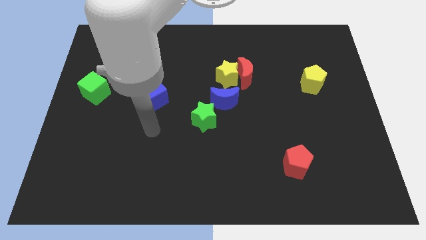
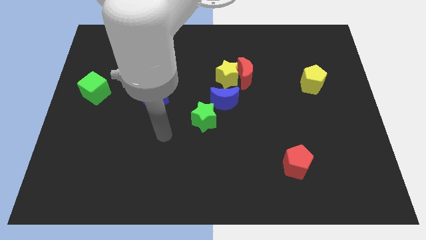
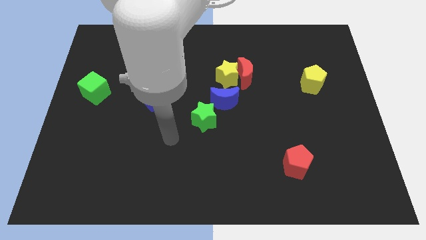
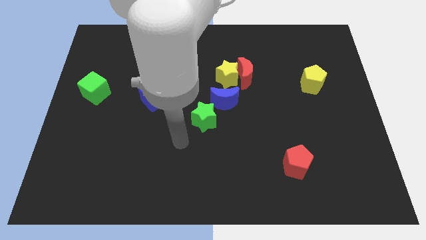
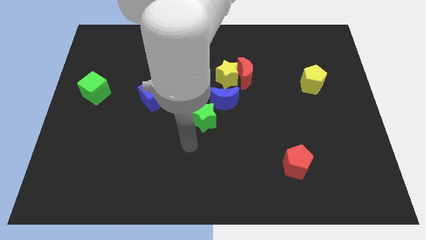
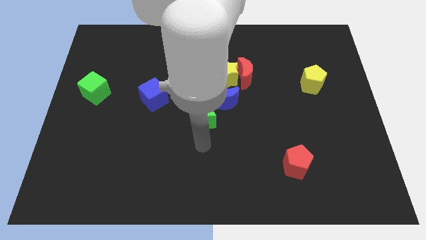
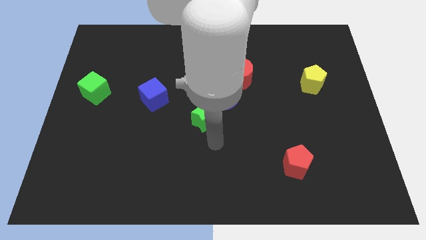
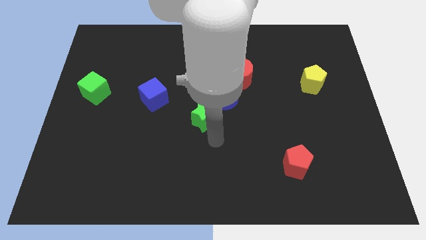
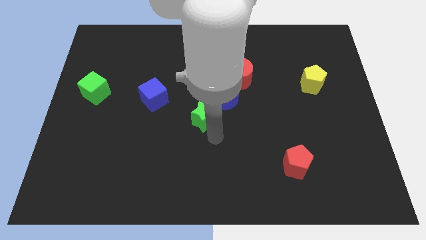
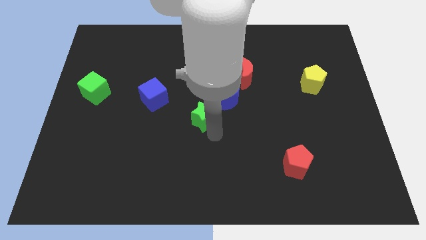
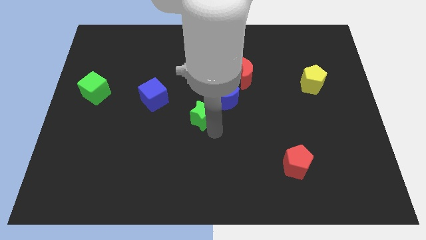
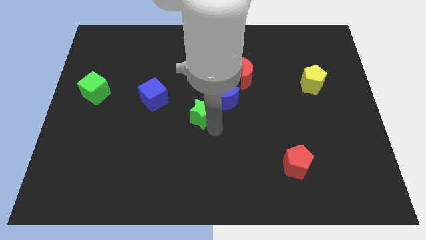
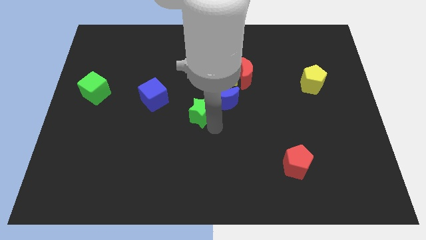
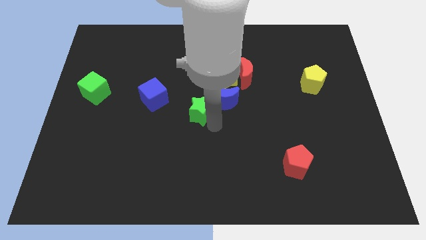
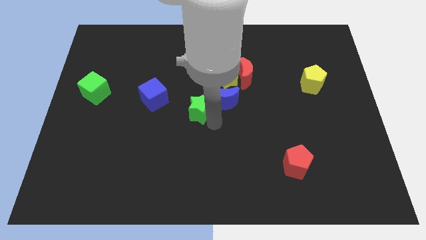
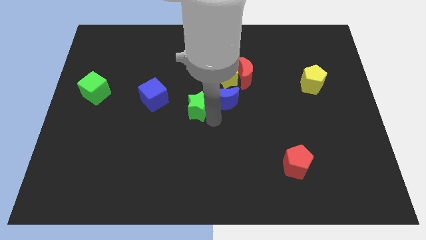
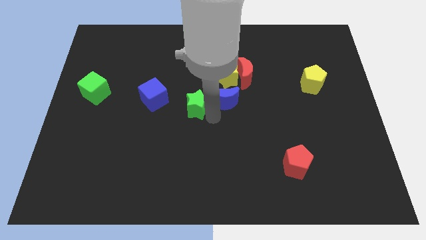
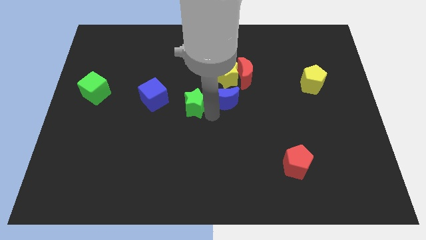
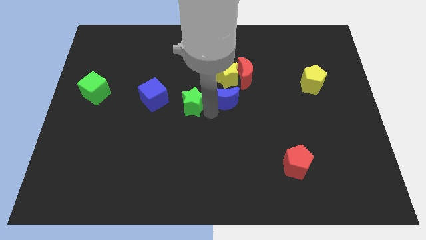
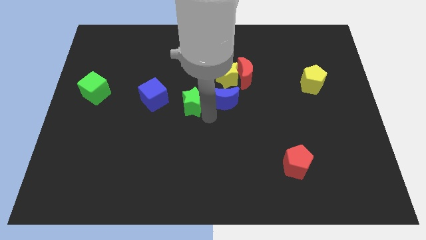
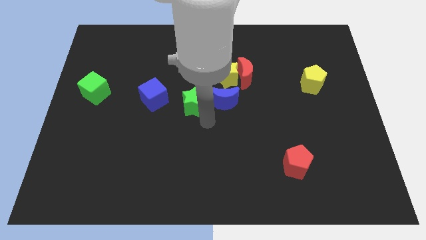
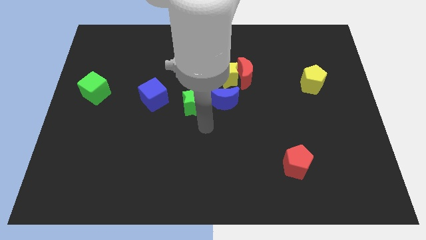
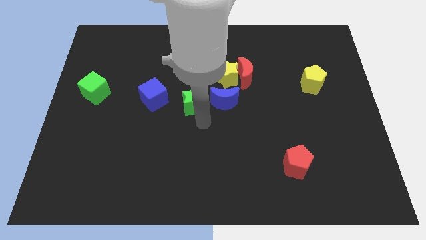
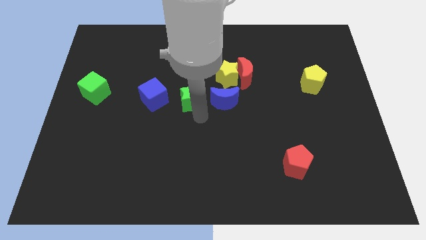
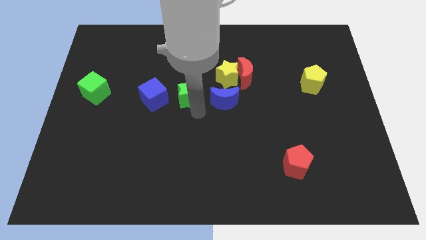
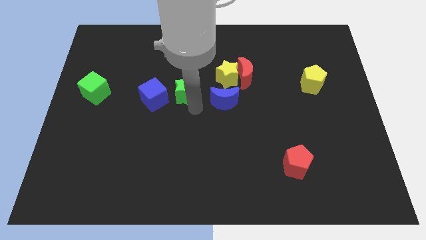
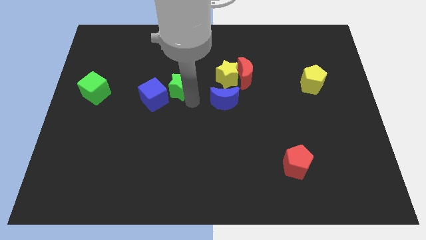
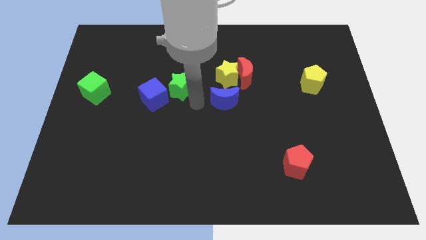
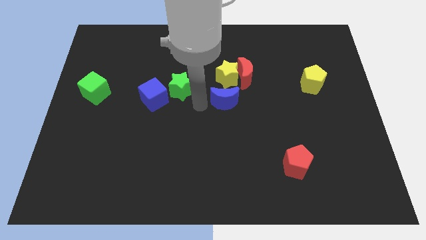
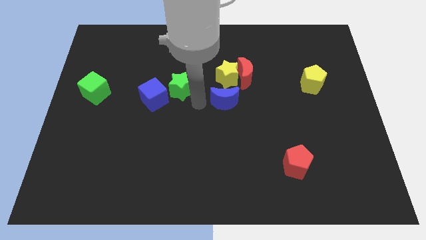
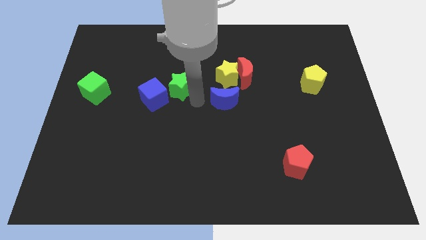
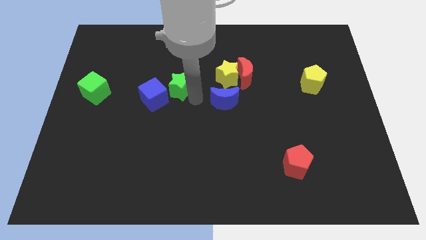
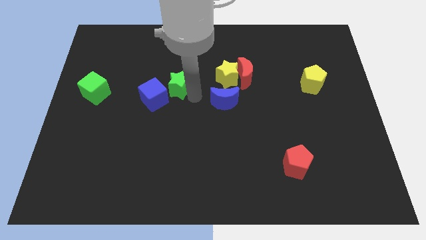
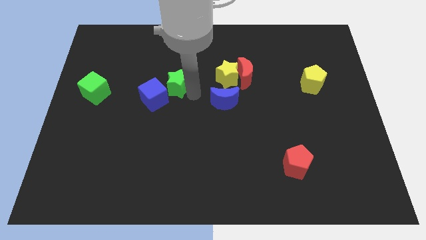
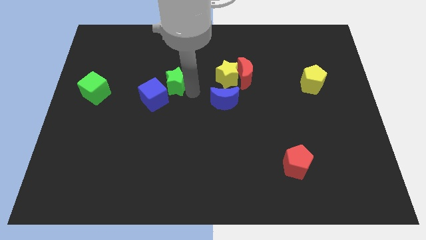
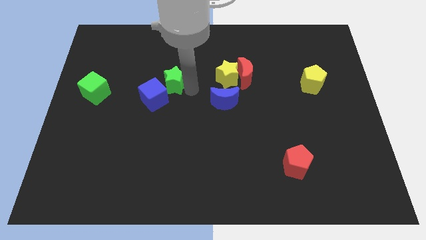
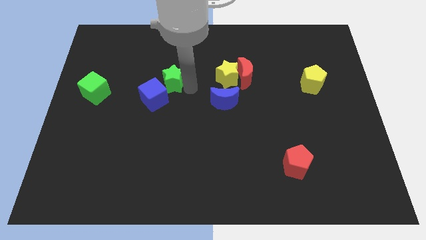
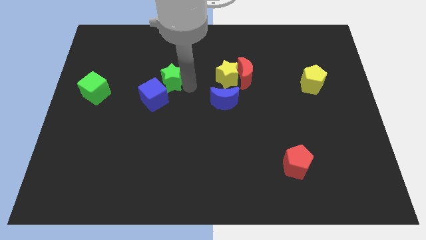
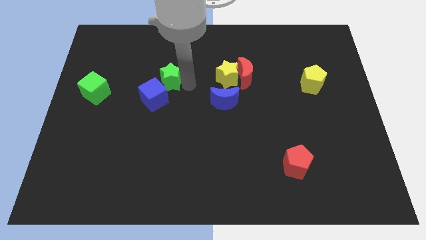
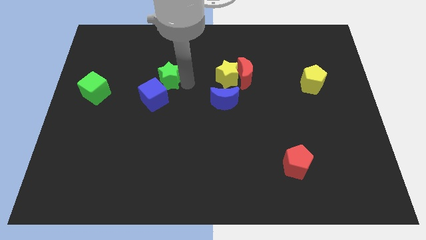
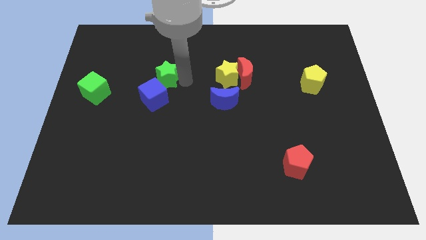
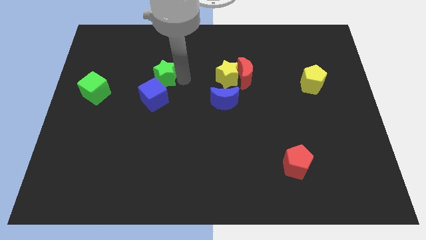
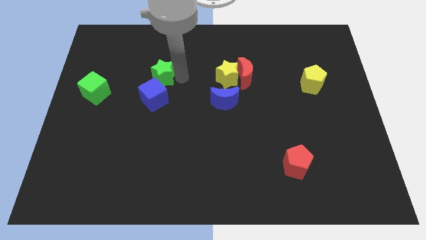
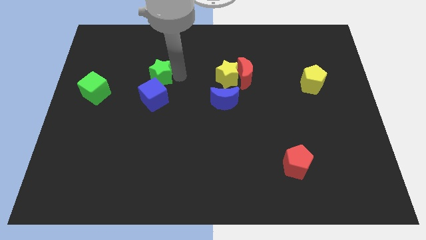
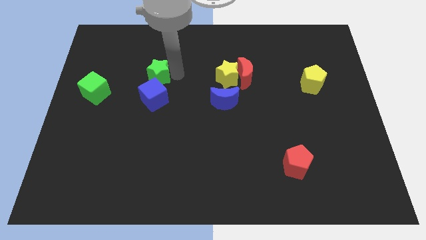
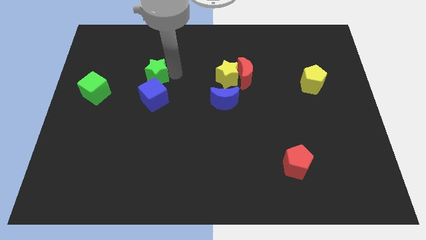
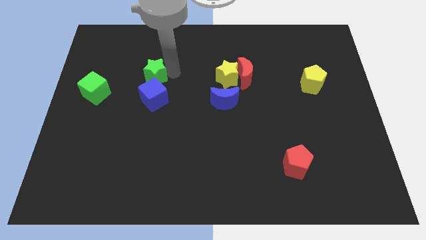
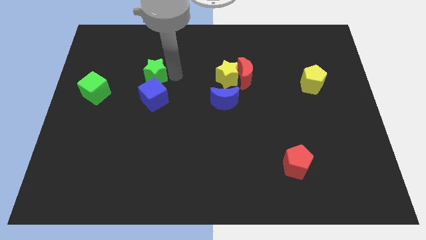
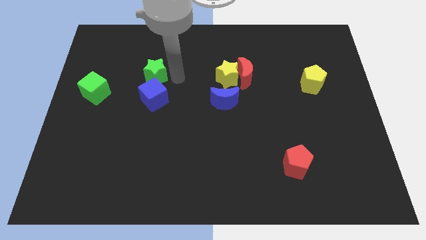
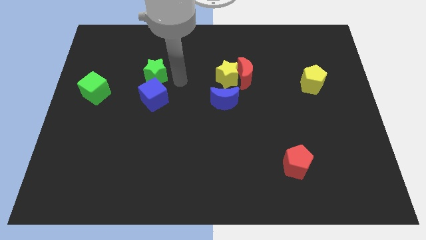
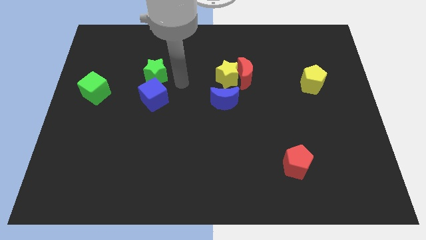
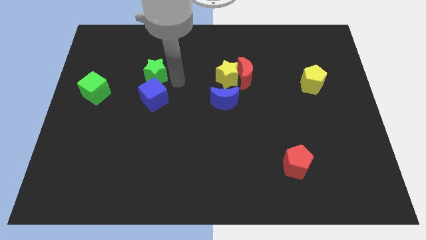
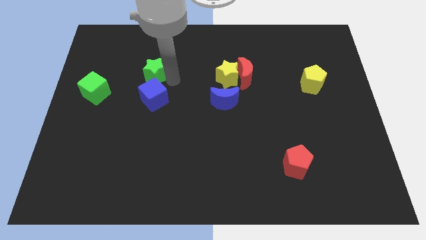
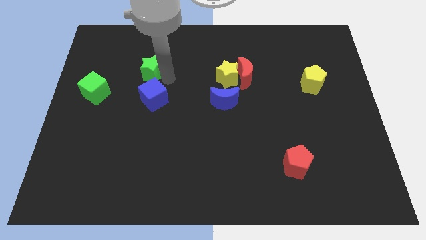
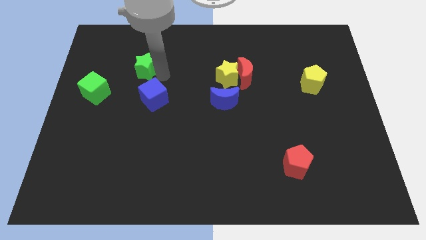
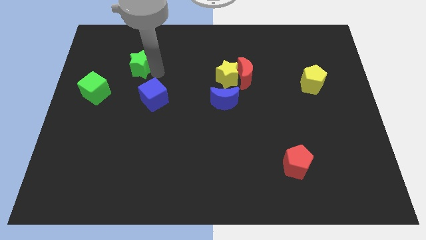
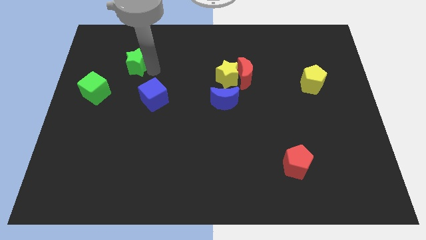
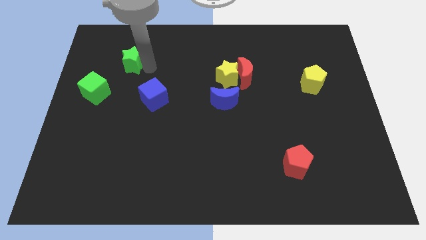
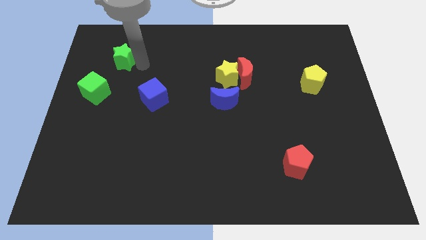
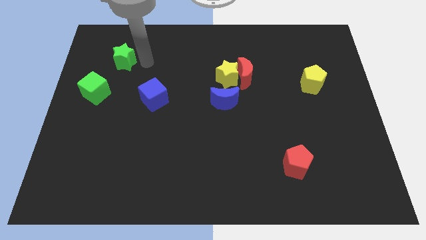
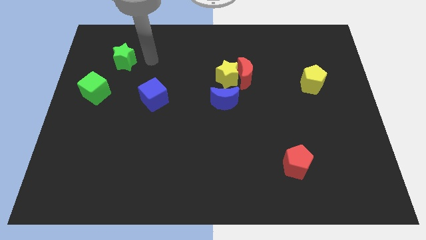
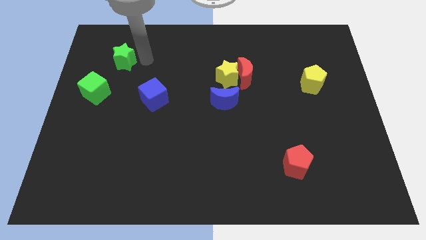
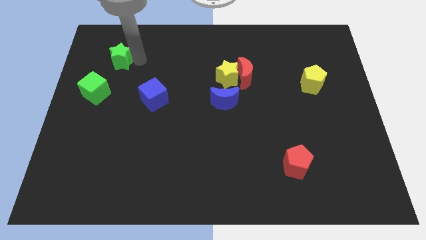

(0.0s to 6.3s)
move the green star above the green cube

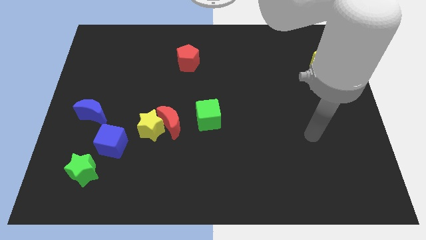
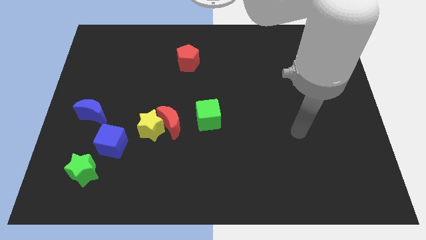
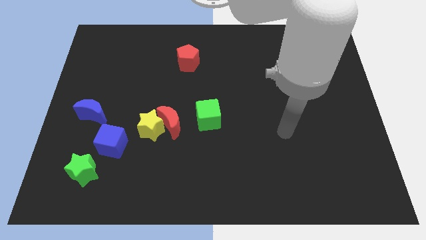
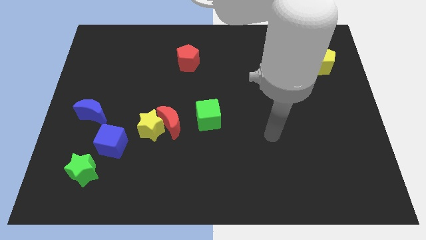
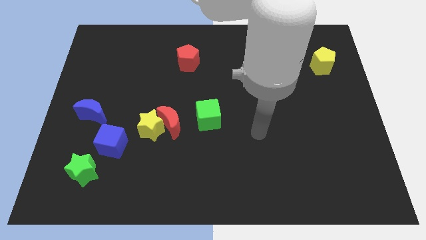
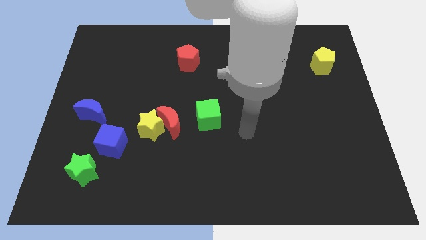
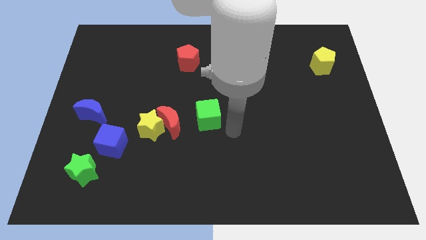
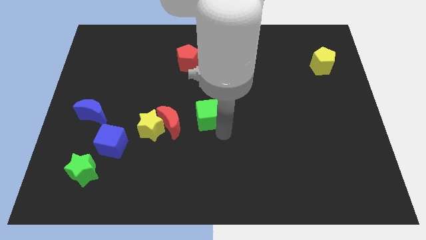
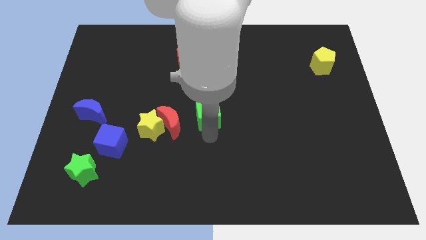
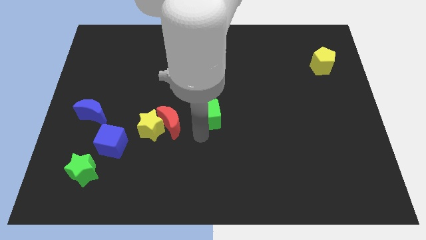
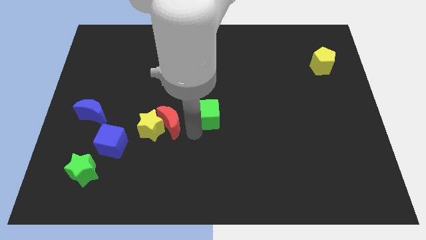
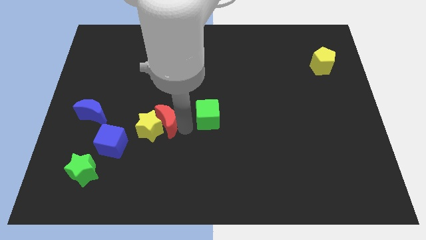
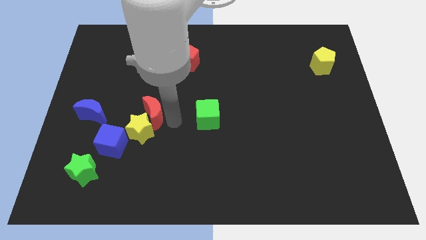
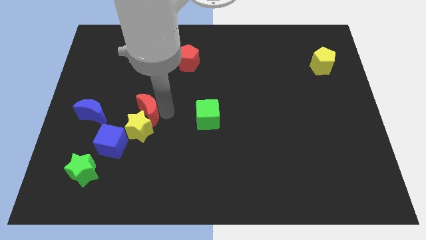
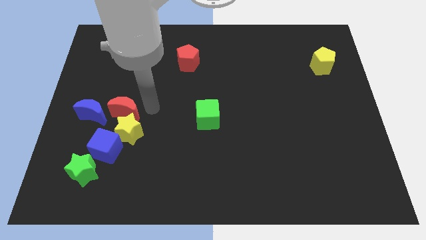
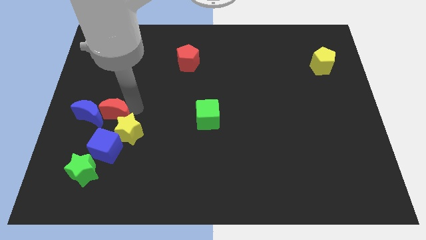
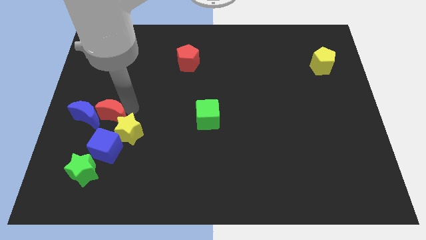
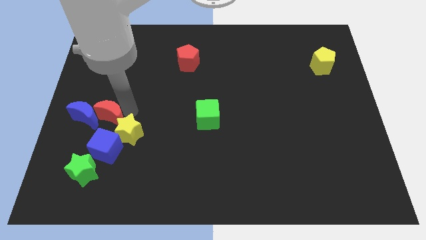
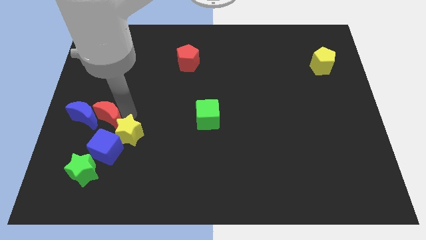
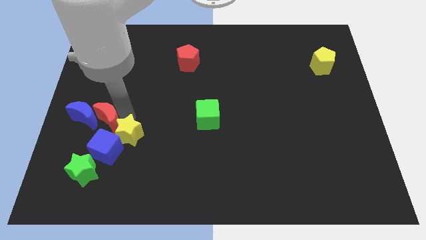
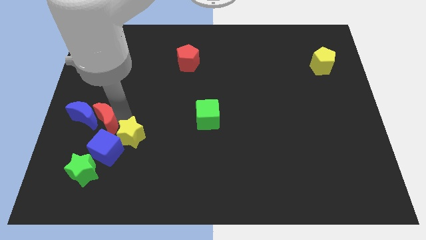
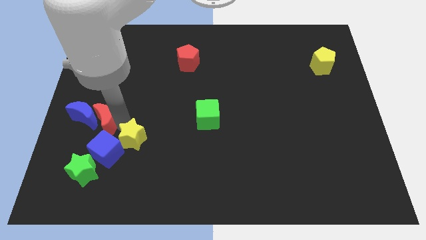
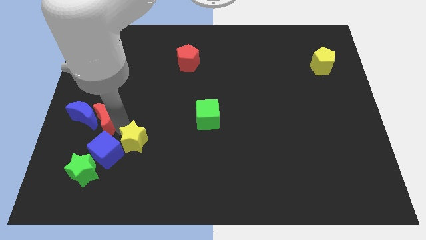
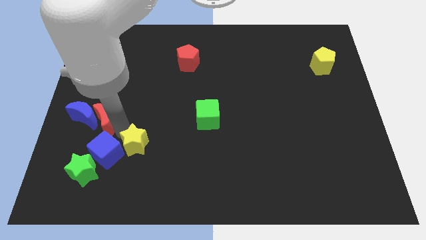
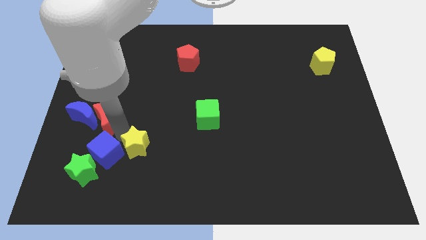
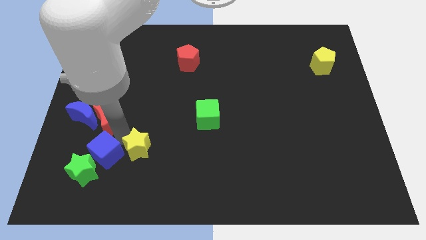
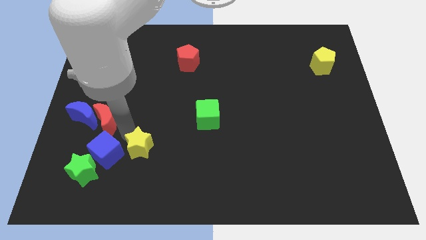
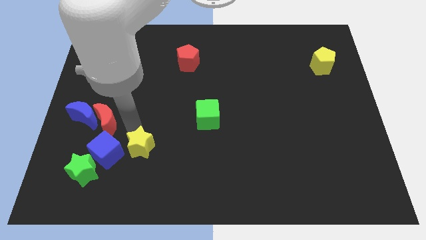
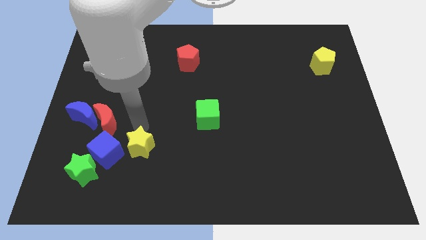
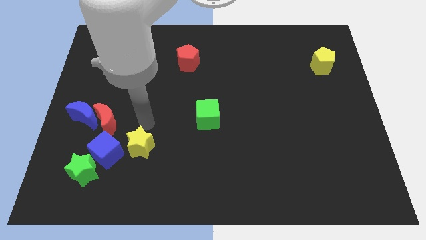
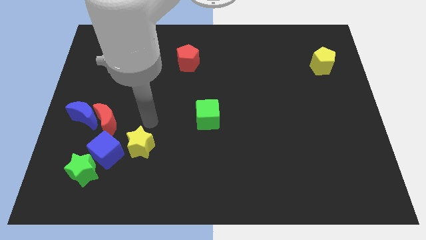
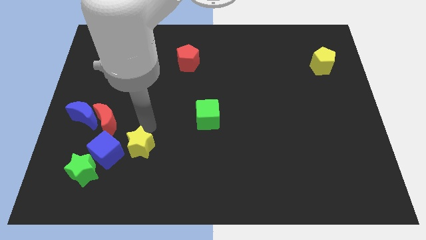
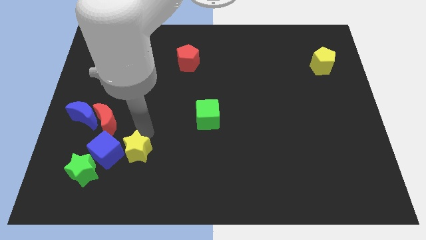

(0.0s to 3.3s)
push the yellow star to the bottom right of the blue cube
